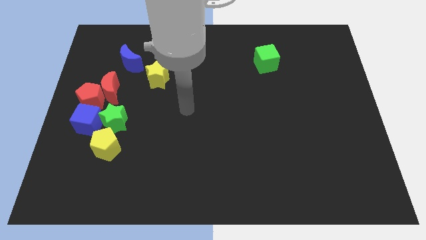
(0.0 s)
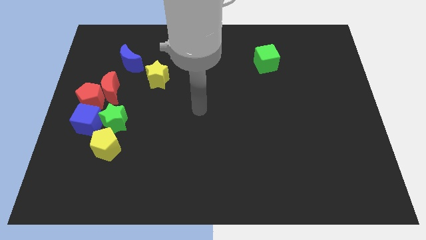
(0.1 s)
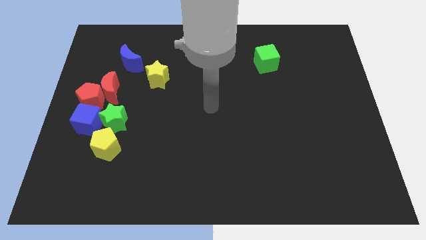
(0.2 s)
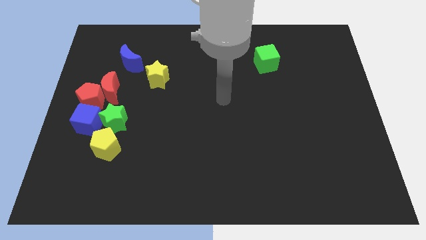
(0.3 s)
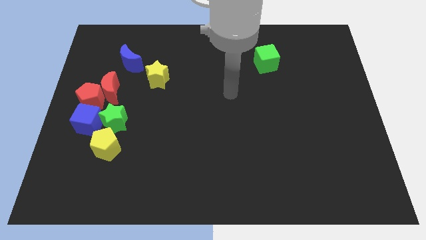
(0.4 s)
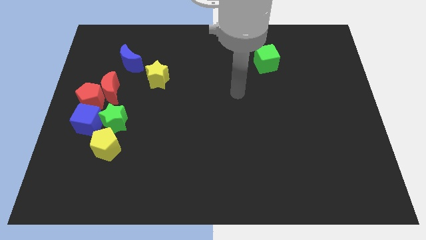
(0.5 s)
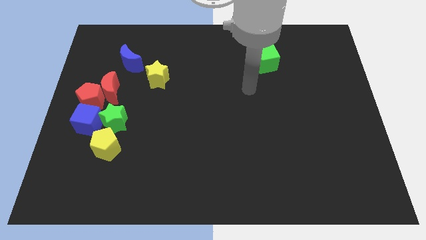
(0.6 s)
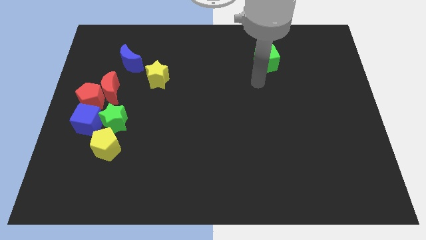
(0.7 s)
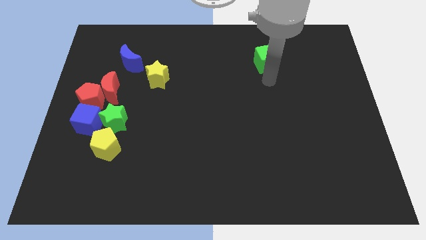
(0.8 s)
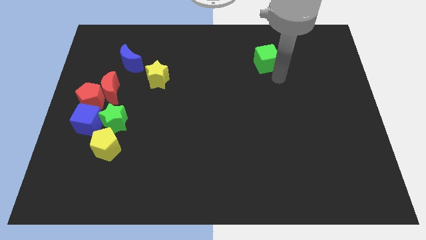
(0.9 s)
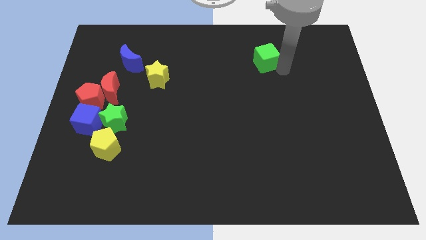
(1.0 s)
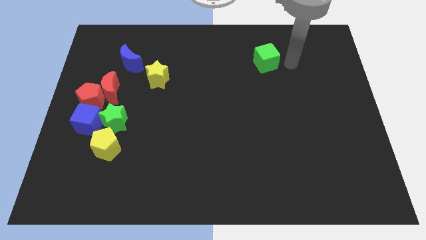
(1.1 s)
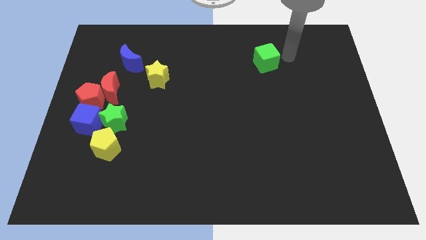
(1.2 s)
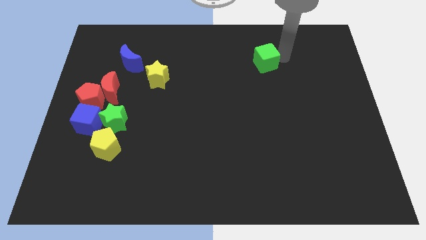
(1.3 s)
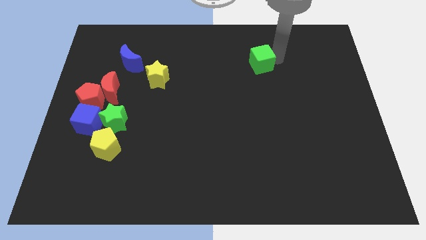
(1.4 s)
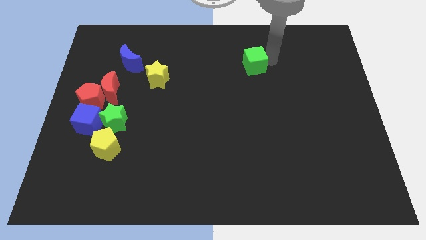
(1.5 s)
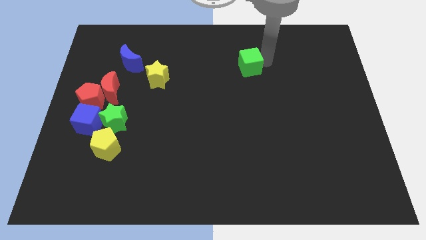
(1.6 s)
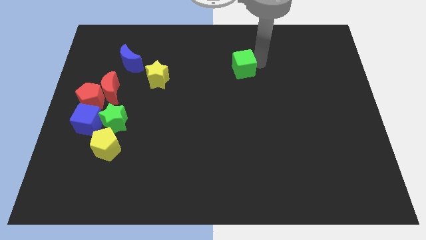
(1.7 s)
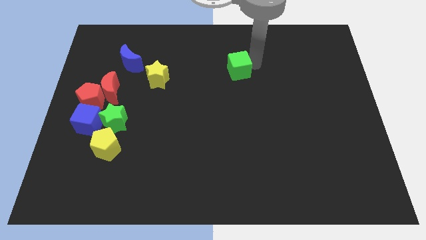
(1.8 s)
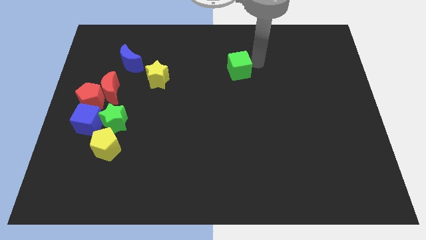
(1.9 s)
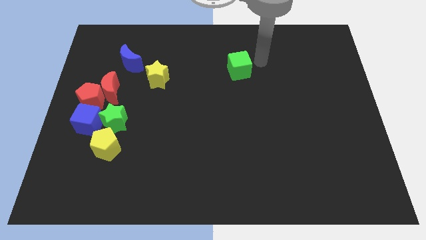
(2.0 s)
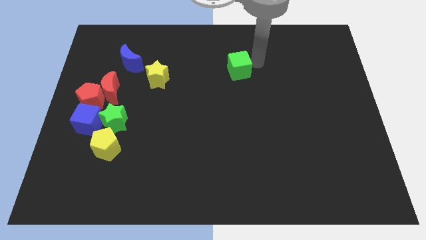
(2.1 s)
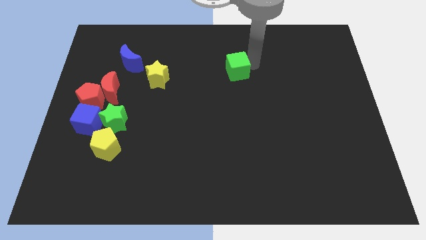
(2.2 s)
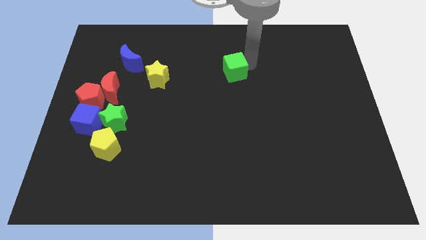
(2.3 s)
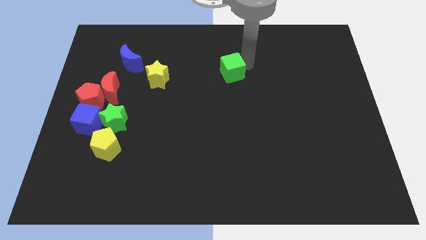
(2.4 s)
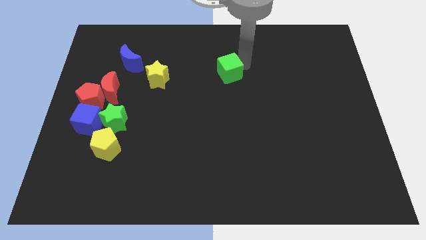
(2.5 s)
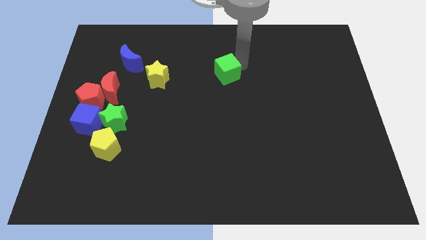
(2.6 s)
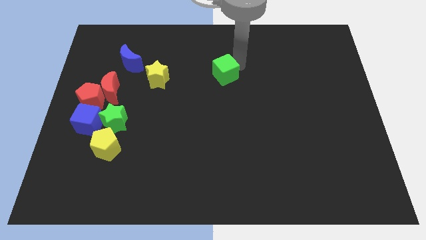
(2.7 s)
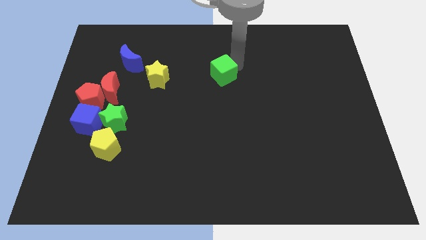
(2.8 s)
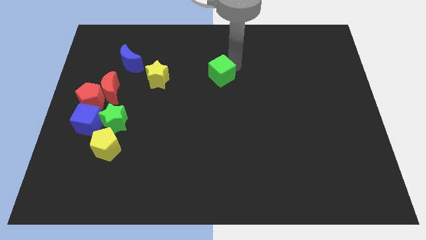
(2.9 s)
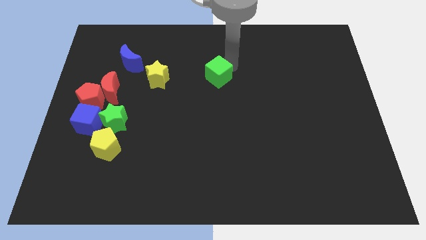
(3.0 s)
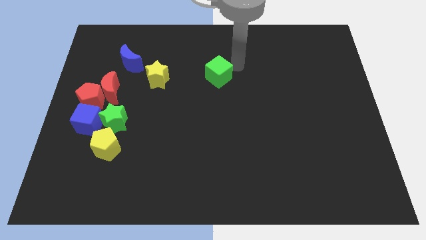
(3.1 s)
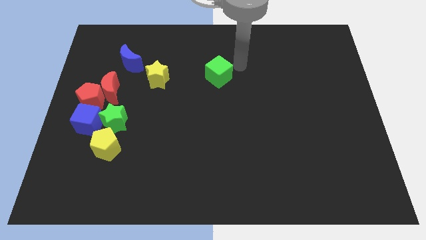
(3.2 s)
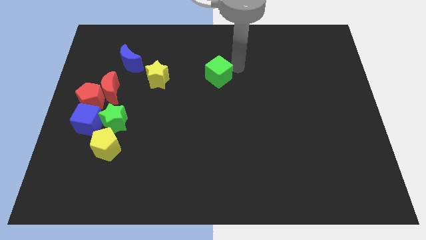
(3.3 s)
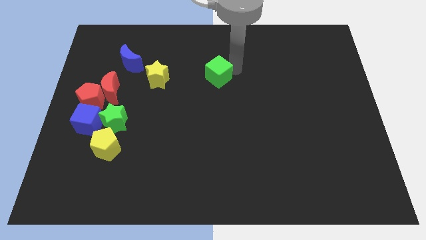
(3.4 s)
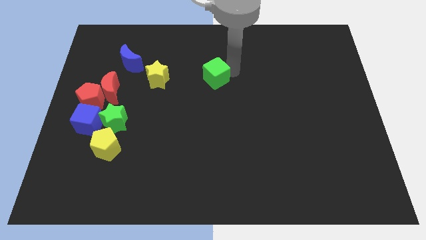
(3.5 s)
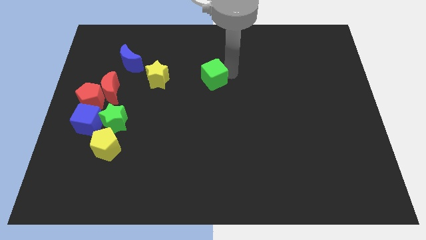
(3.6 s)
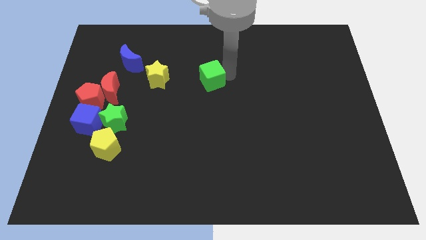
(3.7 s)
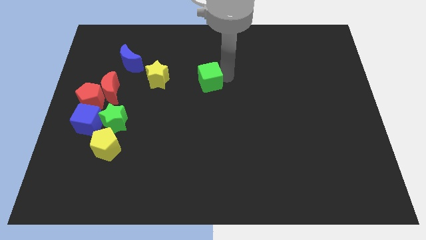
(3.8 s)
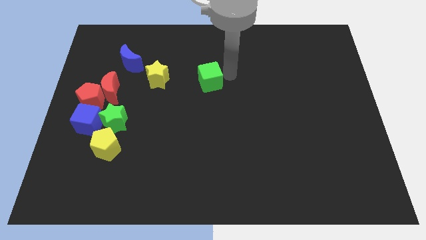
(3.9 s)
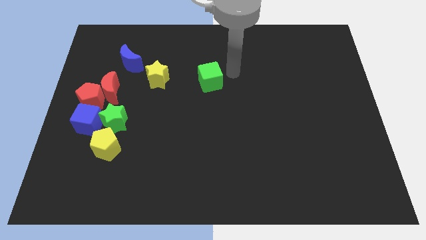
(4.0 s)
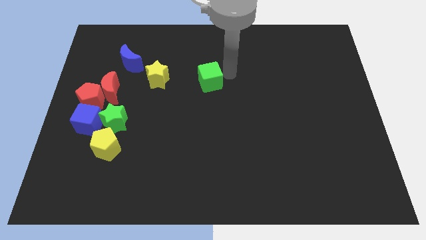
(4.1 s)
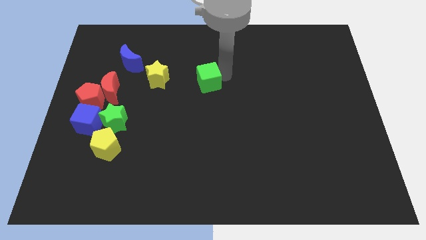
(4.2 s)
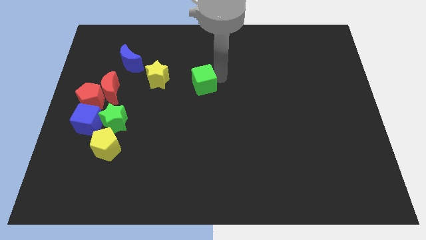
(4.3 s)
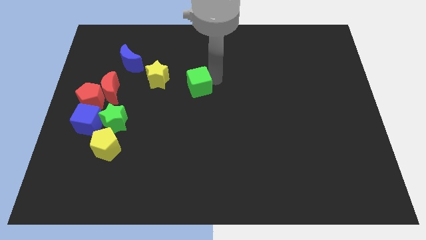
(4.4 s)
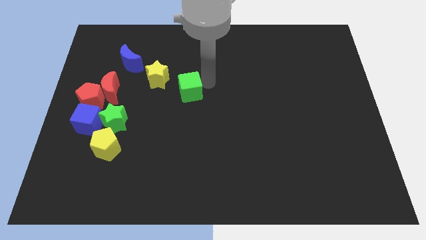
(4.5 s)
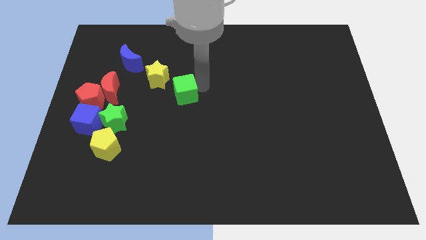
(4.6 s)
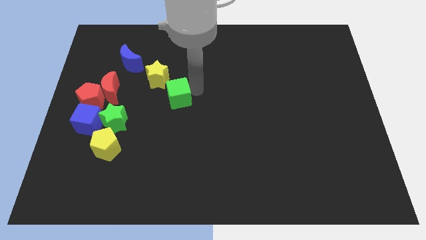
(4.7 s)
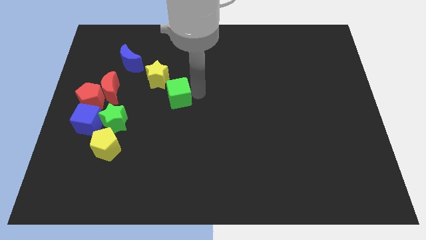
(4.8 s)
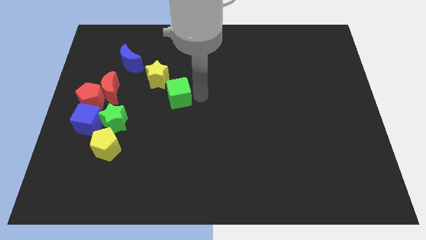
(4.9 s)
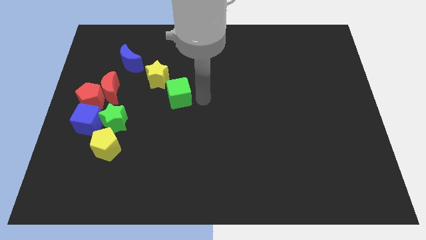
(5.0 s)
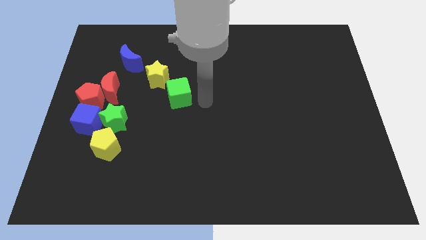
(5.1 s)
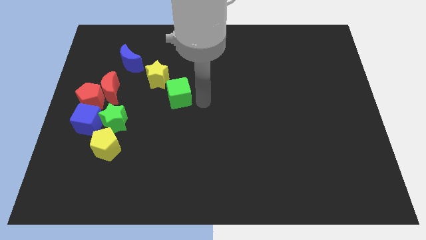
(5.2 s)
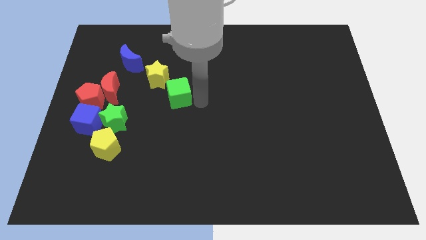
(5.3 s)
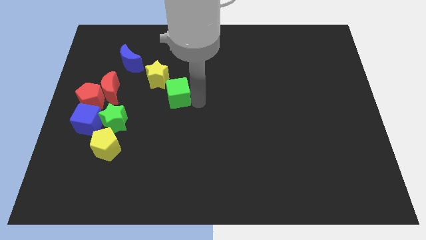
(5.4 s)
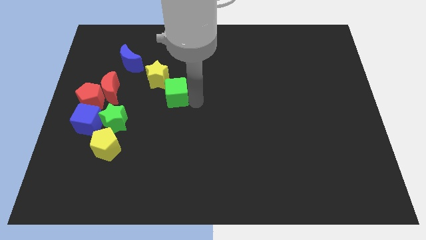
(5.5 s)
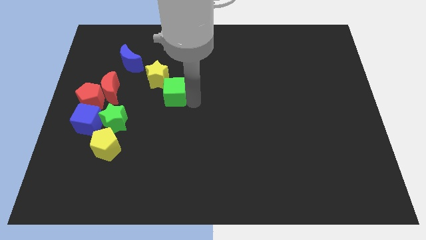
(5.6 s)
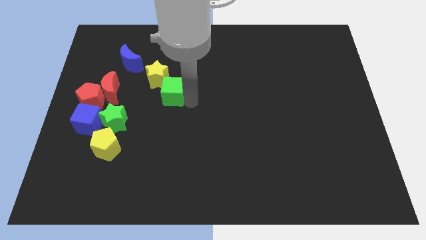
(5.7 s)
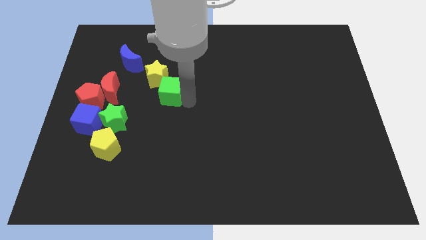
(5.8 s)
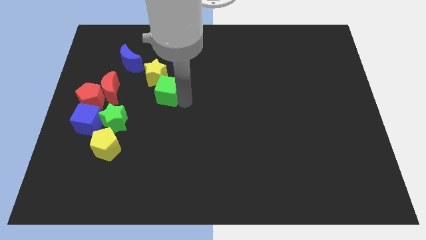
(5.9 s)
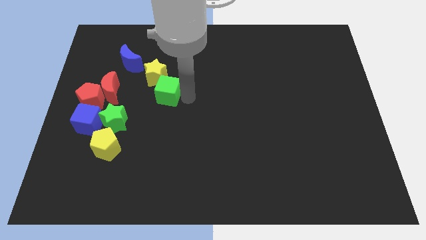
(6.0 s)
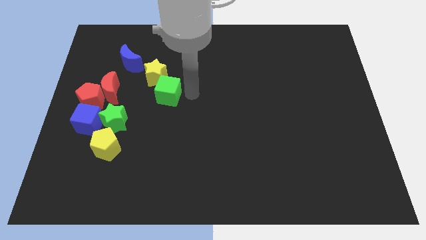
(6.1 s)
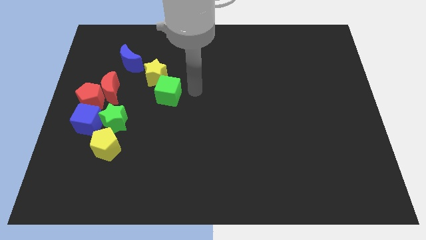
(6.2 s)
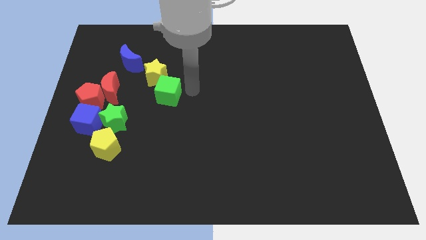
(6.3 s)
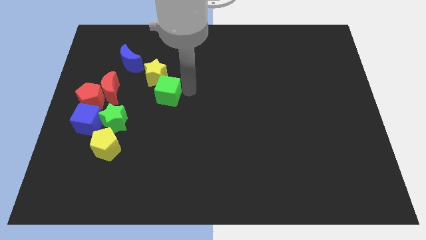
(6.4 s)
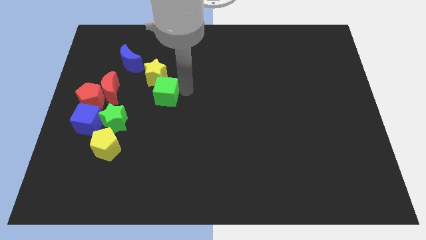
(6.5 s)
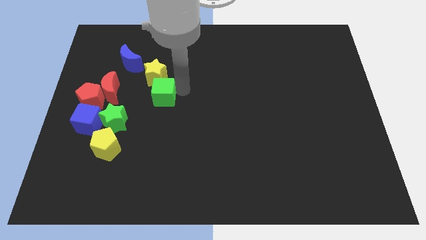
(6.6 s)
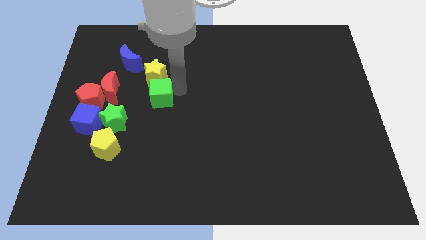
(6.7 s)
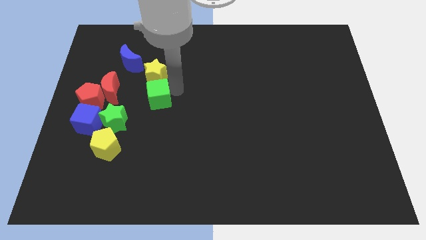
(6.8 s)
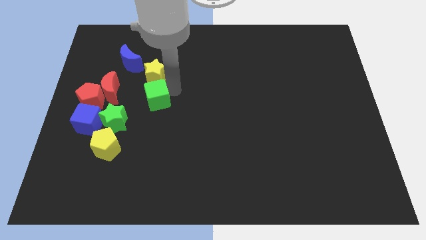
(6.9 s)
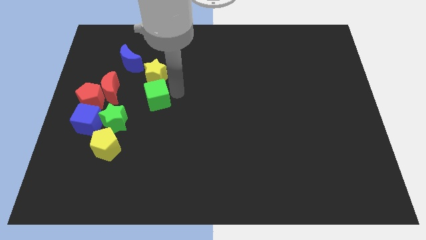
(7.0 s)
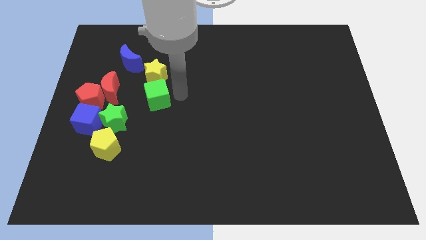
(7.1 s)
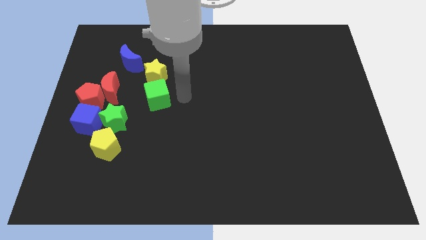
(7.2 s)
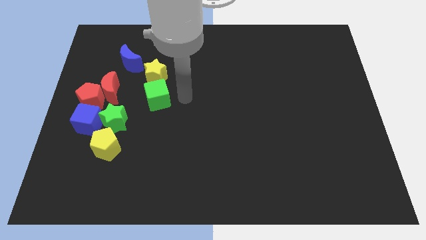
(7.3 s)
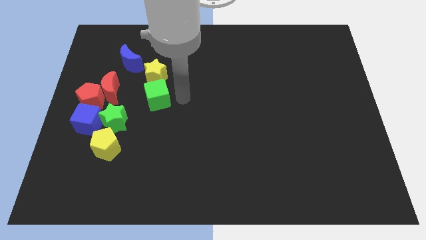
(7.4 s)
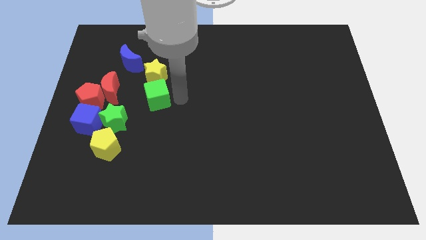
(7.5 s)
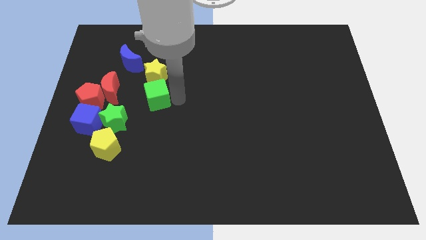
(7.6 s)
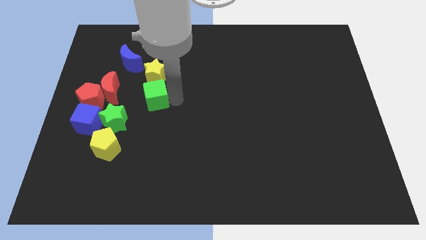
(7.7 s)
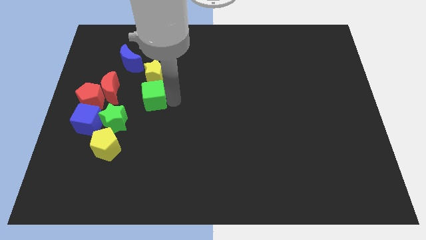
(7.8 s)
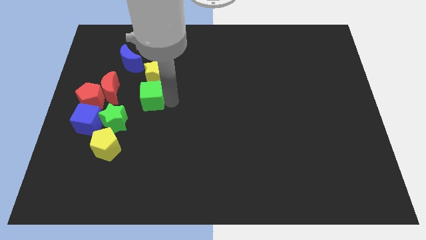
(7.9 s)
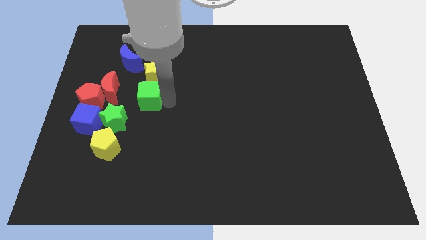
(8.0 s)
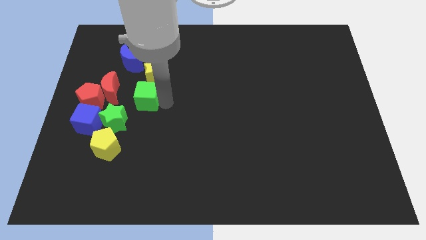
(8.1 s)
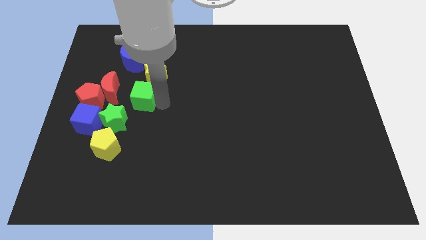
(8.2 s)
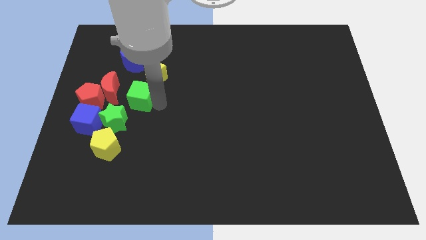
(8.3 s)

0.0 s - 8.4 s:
slide the green cube below the blue moon
